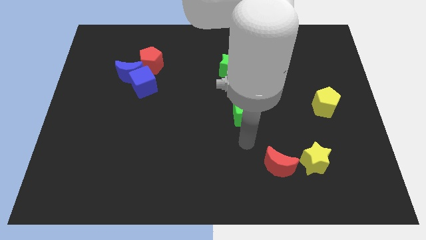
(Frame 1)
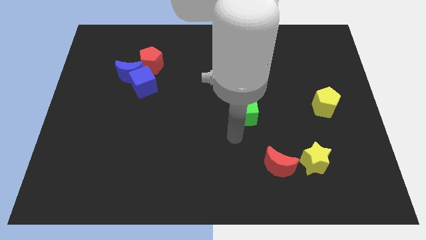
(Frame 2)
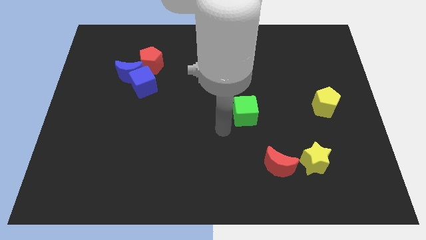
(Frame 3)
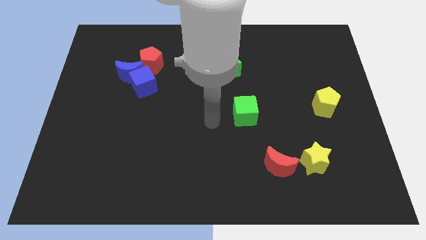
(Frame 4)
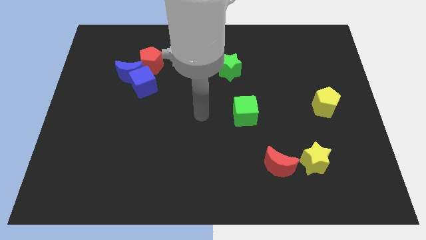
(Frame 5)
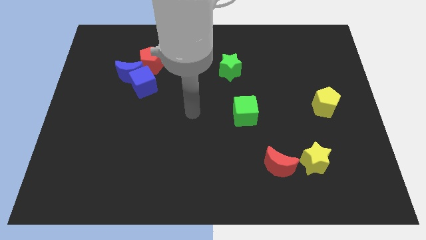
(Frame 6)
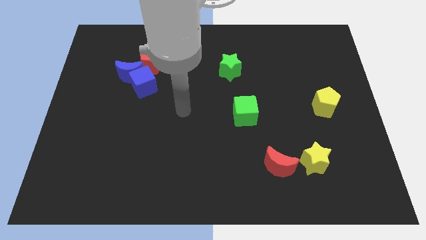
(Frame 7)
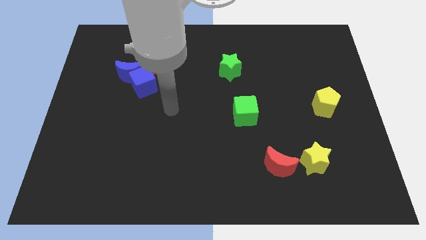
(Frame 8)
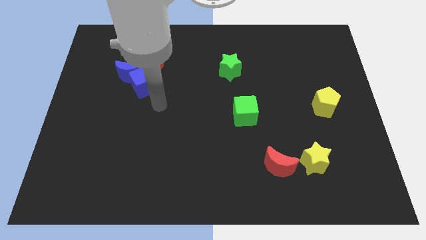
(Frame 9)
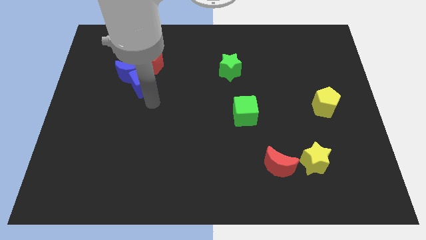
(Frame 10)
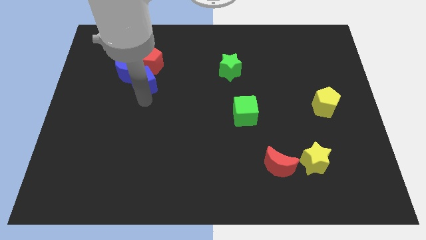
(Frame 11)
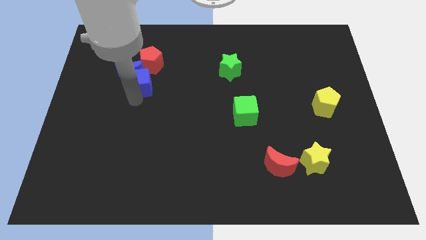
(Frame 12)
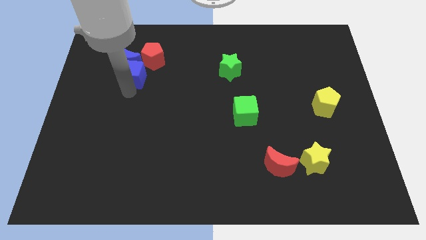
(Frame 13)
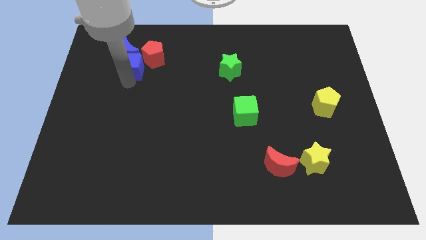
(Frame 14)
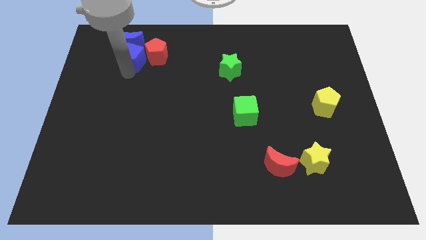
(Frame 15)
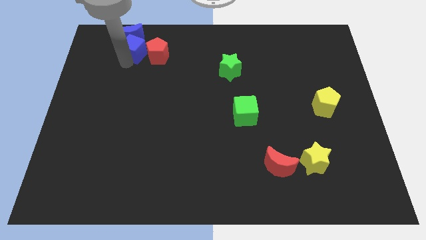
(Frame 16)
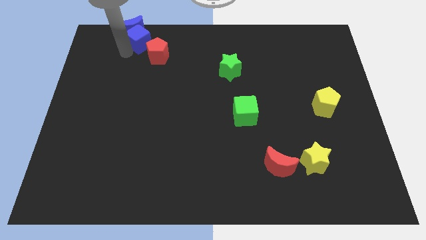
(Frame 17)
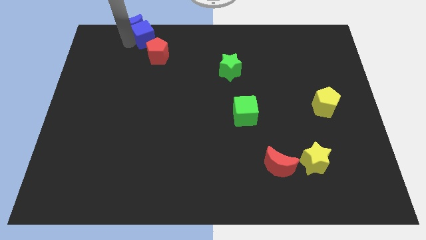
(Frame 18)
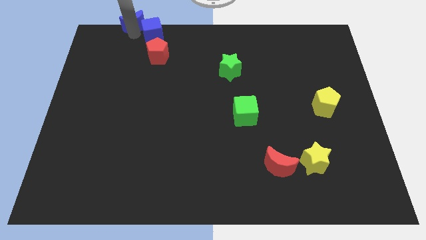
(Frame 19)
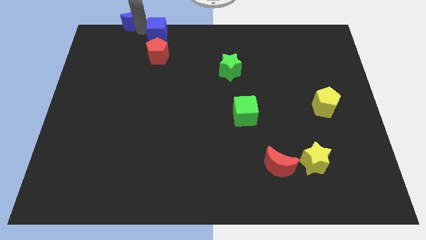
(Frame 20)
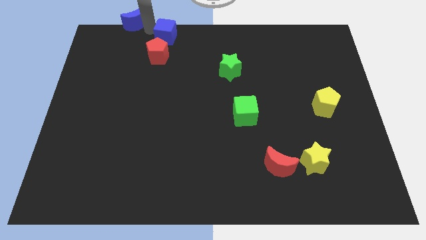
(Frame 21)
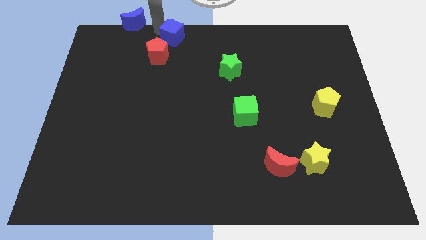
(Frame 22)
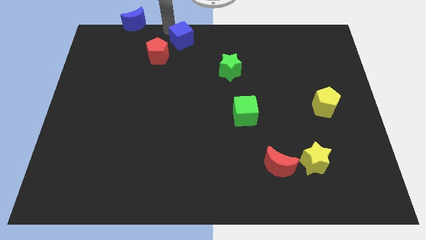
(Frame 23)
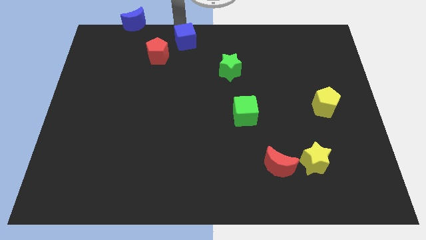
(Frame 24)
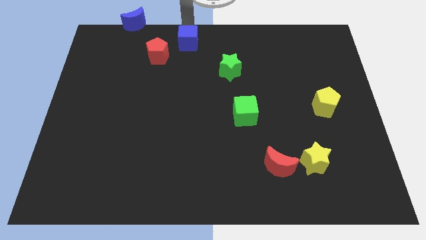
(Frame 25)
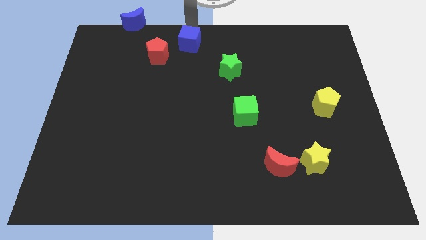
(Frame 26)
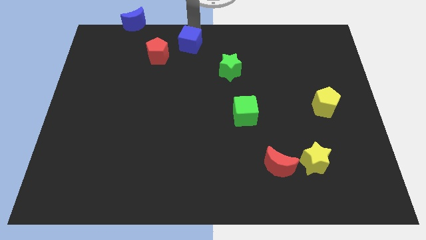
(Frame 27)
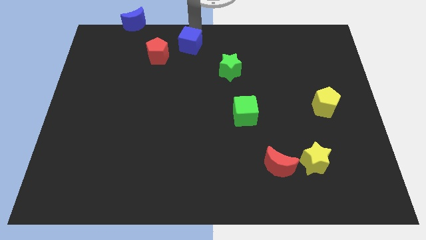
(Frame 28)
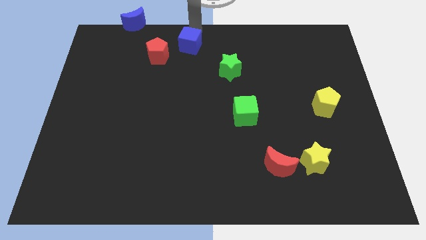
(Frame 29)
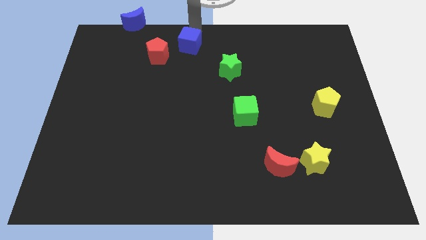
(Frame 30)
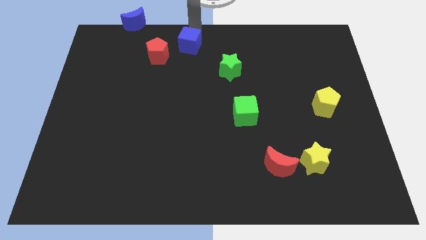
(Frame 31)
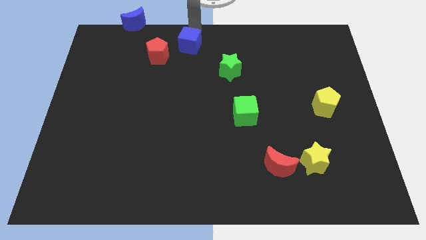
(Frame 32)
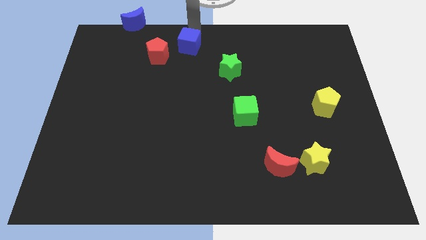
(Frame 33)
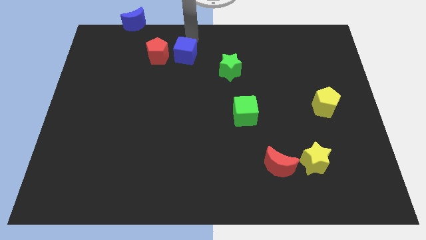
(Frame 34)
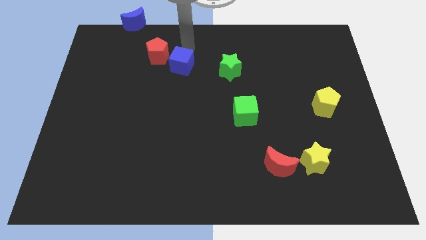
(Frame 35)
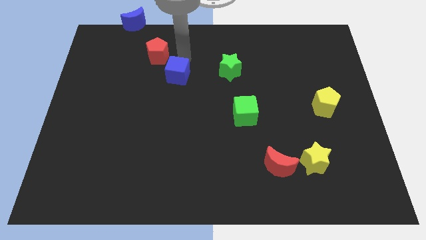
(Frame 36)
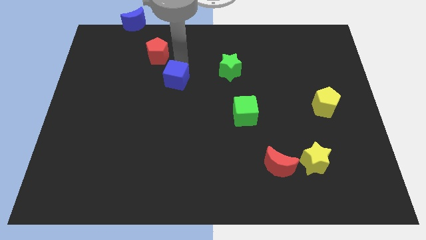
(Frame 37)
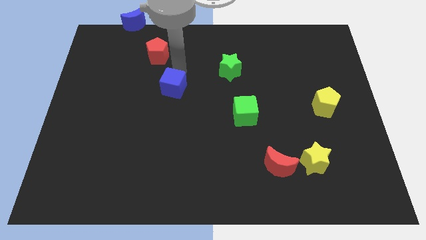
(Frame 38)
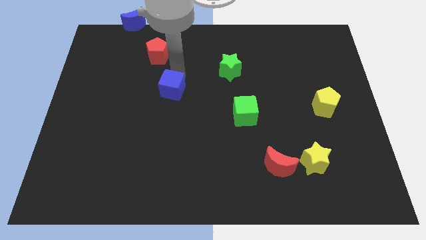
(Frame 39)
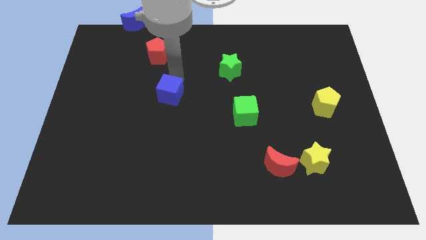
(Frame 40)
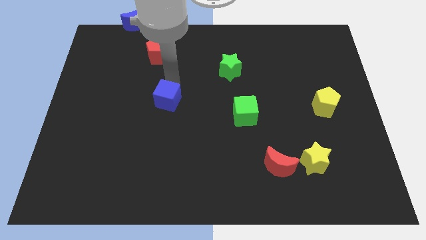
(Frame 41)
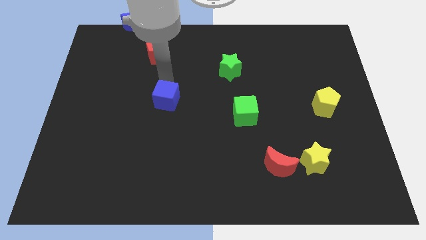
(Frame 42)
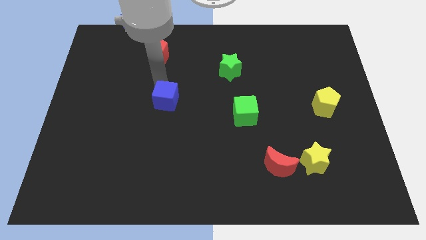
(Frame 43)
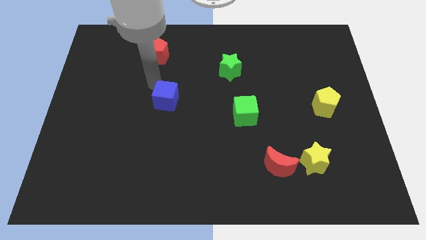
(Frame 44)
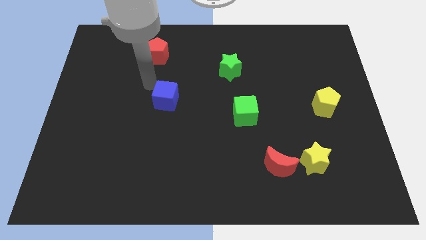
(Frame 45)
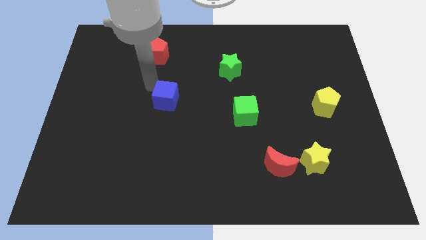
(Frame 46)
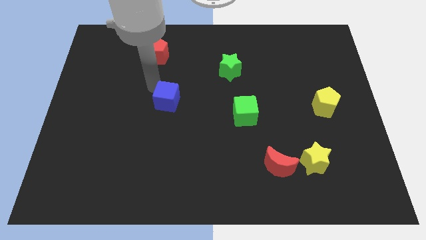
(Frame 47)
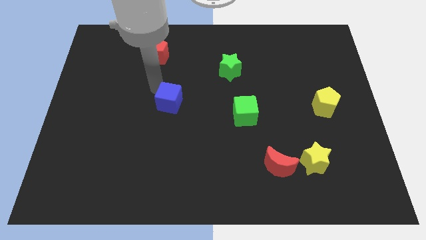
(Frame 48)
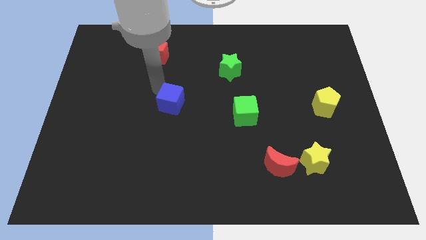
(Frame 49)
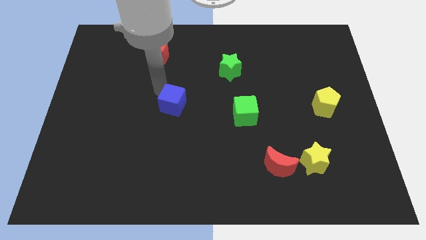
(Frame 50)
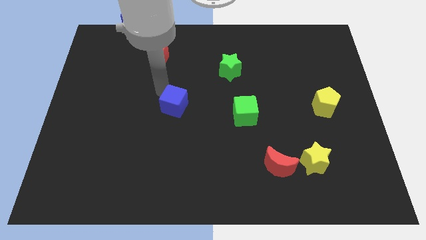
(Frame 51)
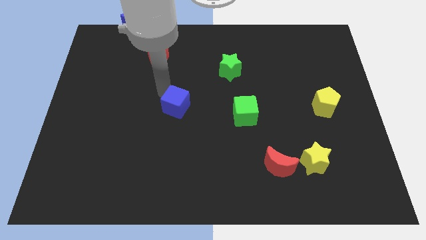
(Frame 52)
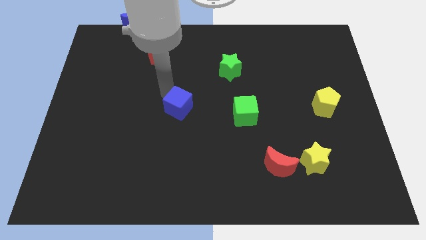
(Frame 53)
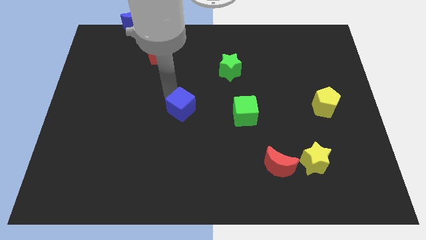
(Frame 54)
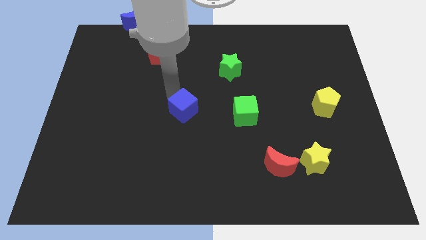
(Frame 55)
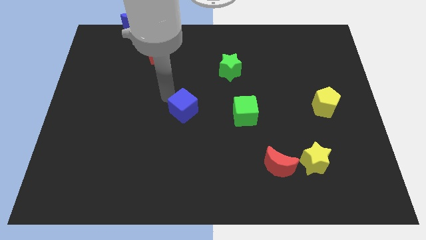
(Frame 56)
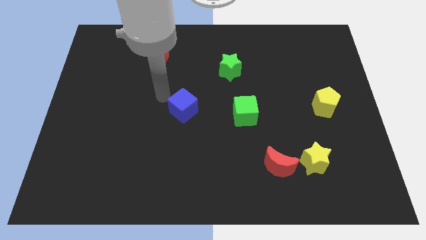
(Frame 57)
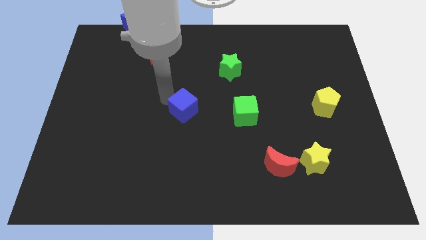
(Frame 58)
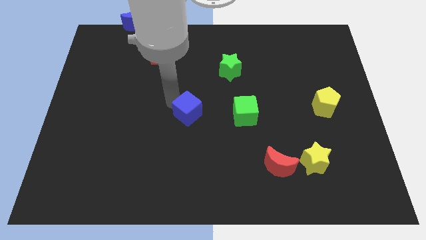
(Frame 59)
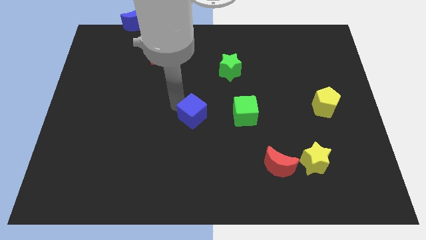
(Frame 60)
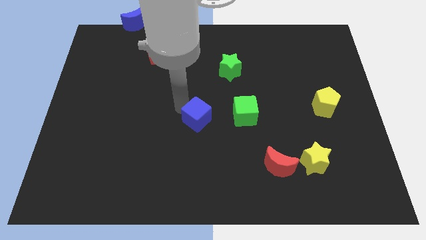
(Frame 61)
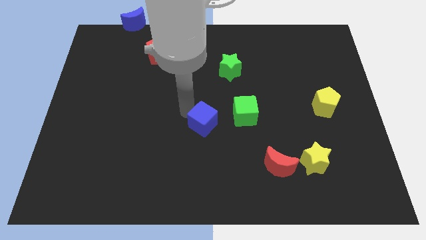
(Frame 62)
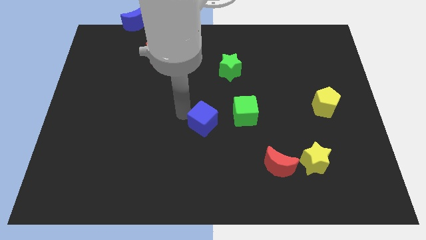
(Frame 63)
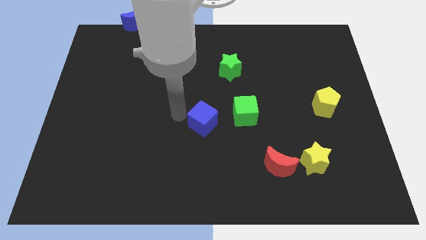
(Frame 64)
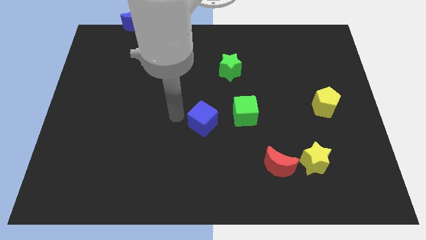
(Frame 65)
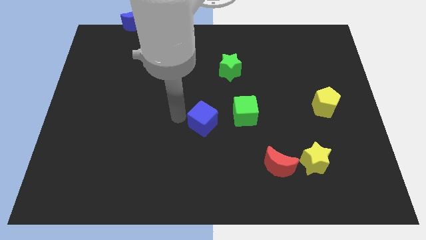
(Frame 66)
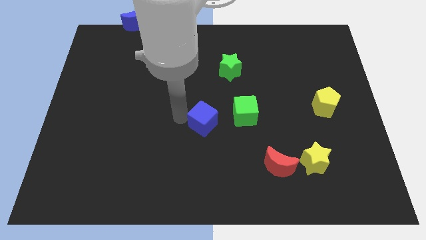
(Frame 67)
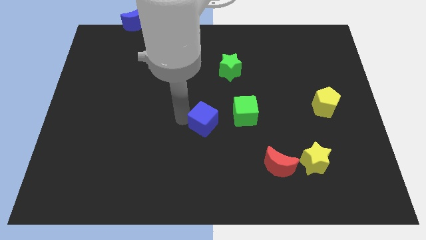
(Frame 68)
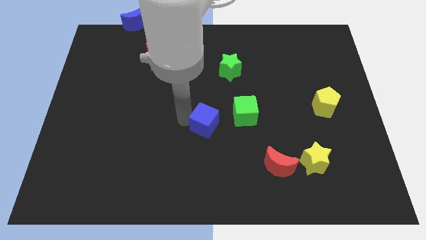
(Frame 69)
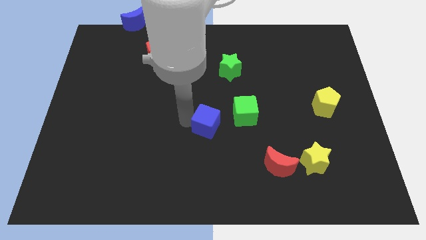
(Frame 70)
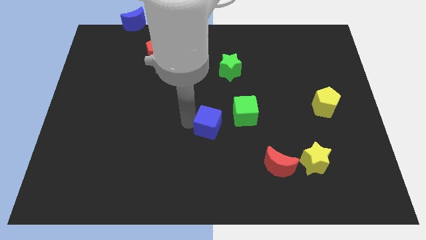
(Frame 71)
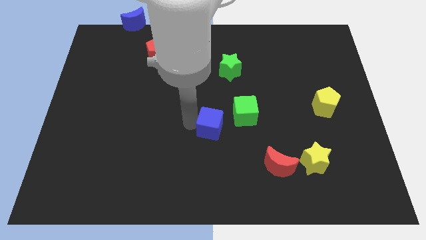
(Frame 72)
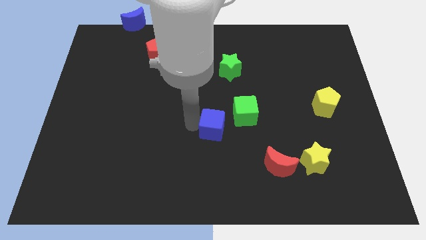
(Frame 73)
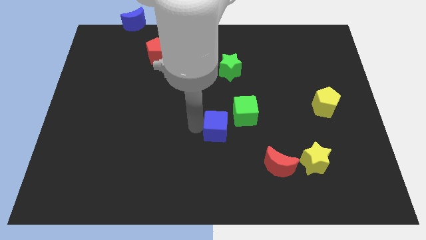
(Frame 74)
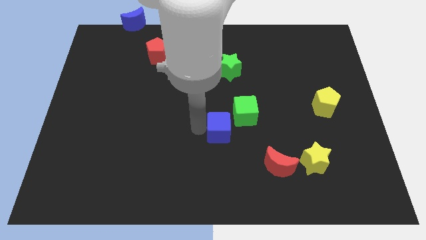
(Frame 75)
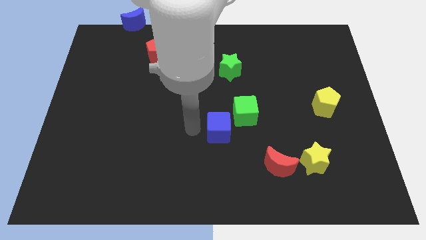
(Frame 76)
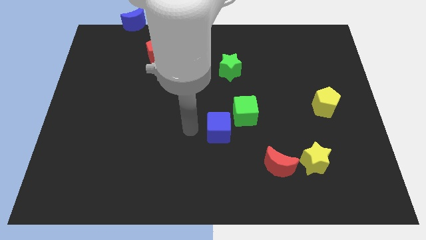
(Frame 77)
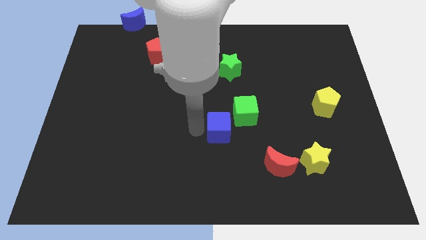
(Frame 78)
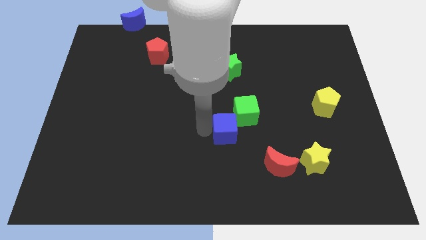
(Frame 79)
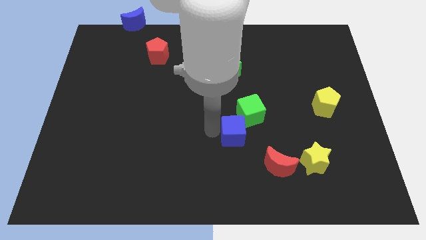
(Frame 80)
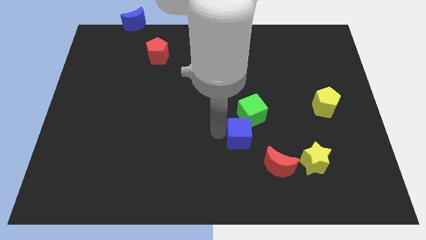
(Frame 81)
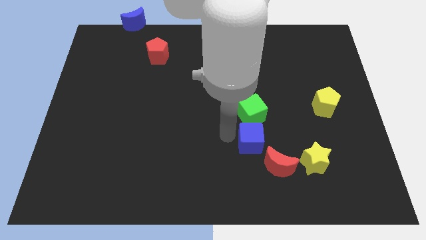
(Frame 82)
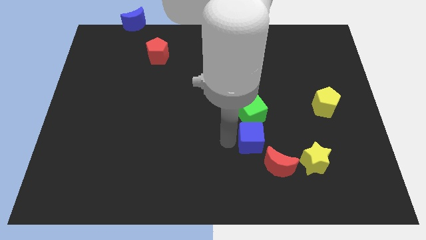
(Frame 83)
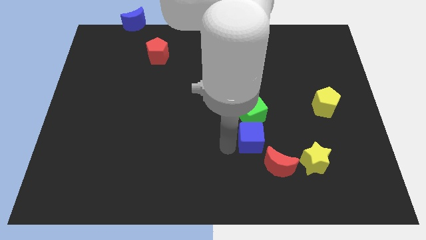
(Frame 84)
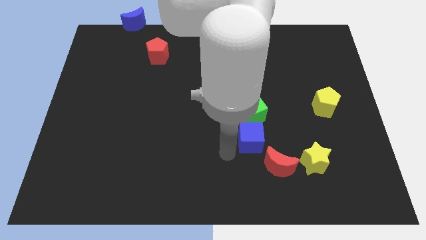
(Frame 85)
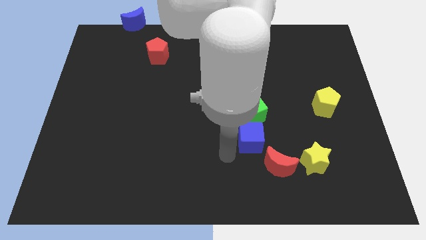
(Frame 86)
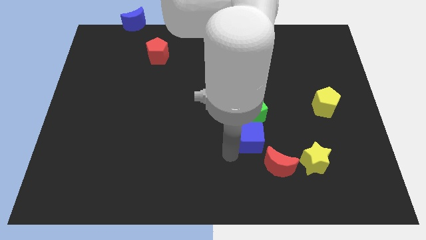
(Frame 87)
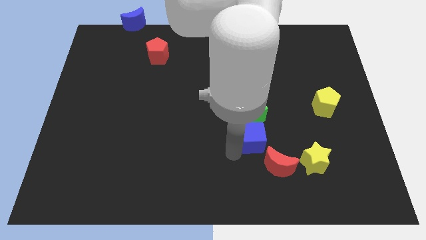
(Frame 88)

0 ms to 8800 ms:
move the blue cube above the red moon
